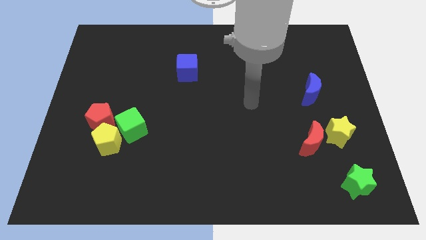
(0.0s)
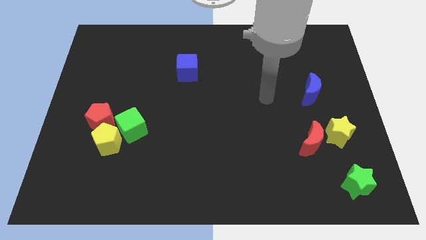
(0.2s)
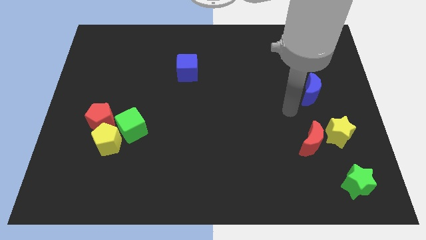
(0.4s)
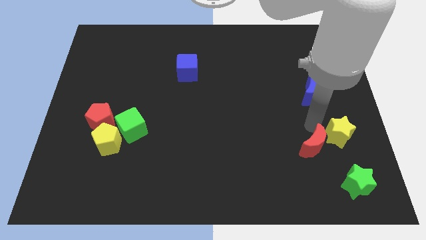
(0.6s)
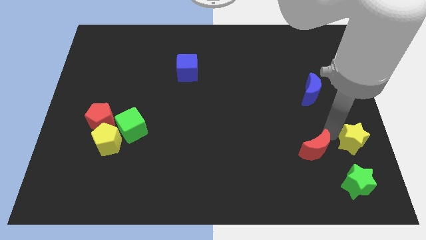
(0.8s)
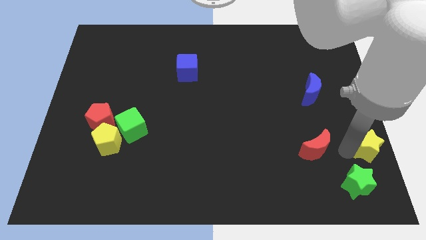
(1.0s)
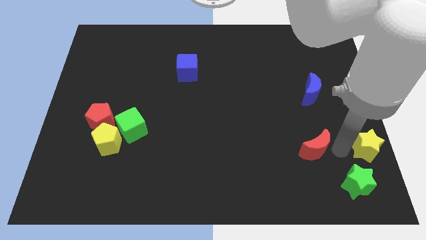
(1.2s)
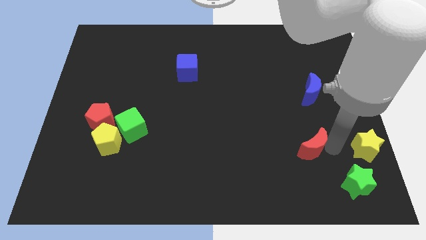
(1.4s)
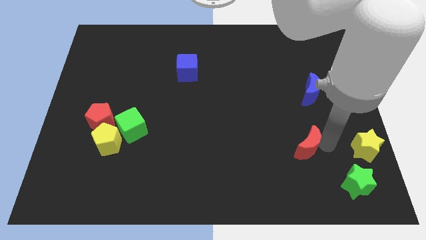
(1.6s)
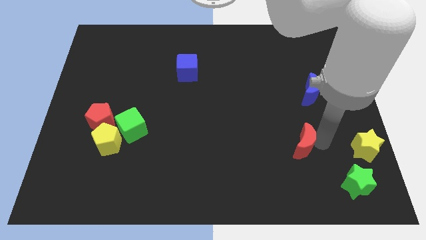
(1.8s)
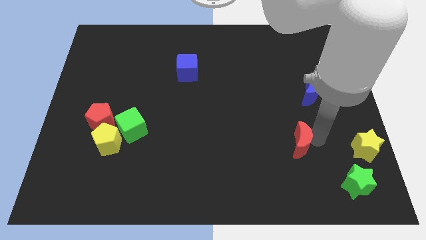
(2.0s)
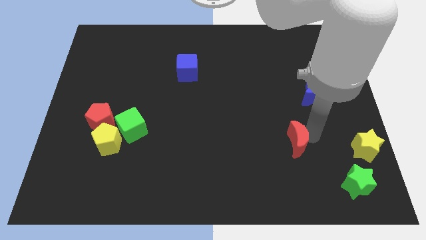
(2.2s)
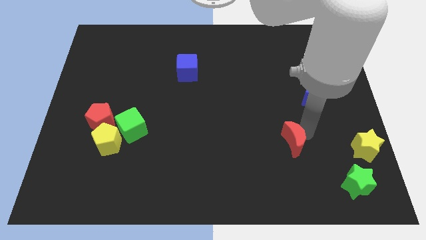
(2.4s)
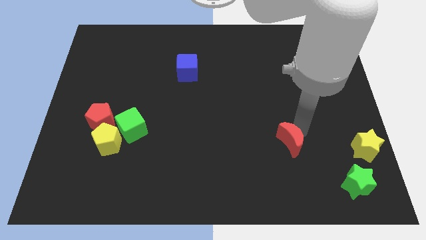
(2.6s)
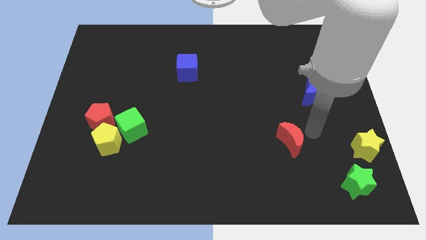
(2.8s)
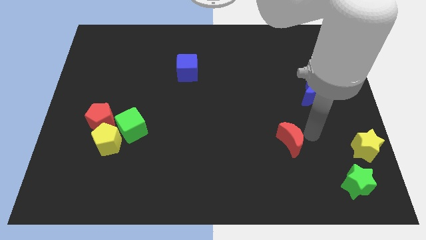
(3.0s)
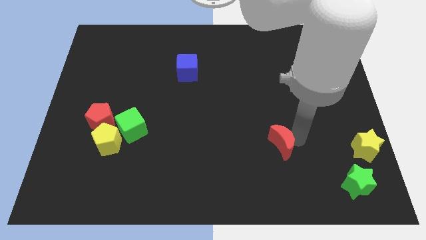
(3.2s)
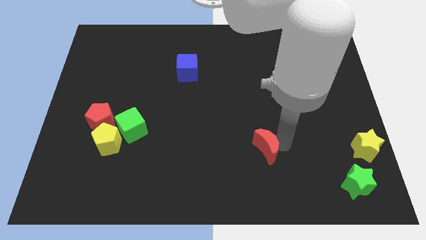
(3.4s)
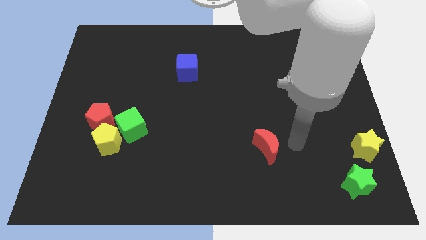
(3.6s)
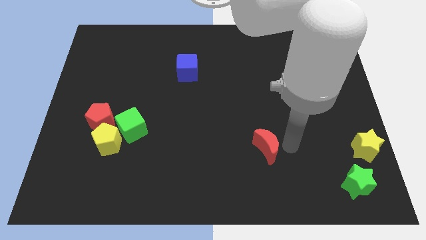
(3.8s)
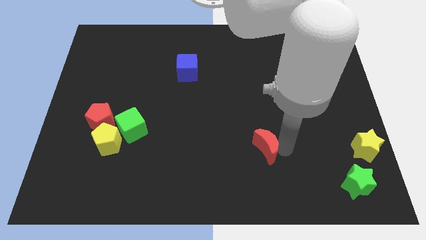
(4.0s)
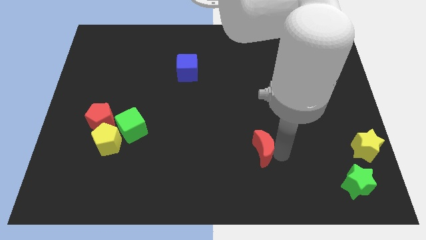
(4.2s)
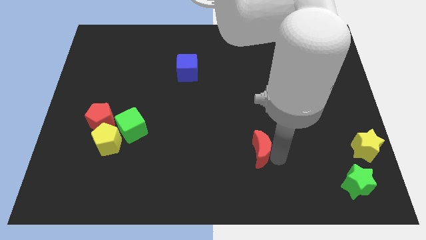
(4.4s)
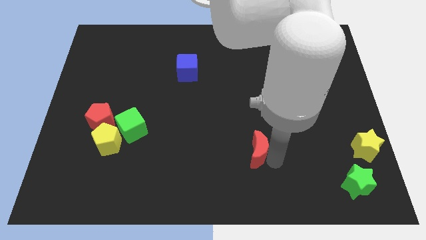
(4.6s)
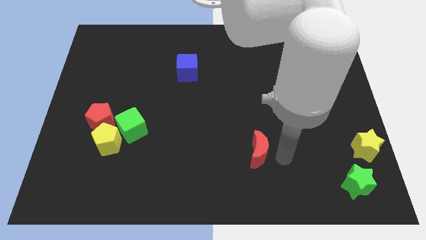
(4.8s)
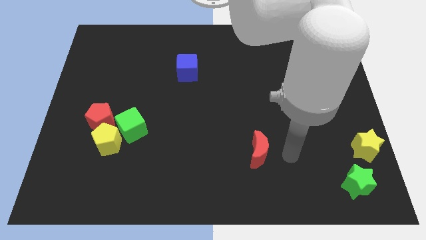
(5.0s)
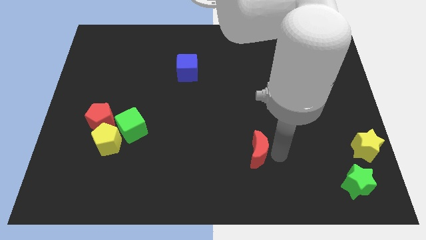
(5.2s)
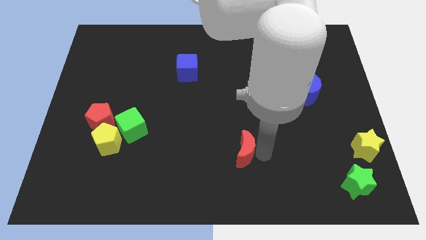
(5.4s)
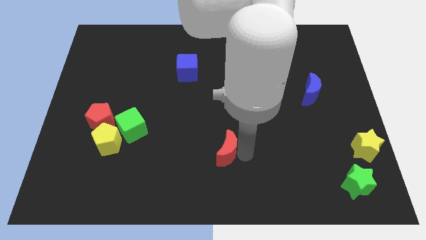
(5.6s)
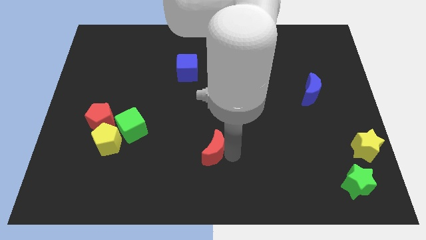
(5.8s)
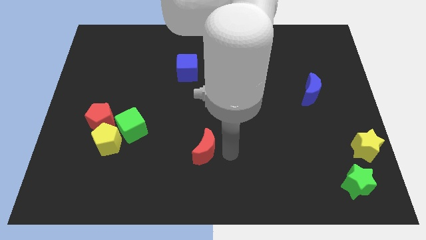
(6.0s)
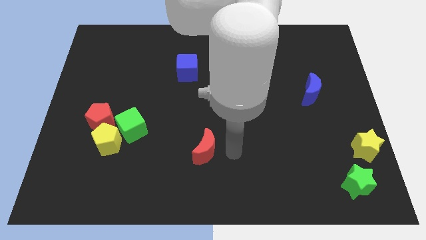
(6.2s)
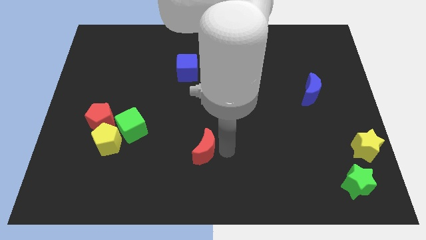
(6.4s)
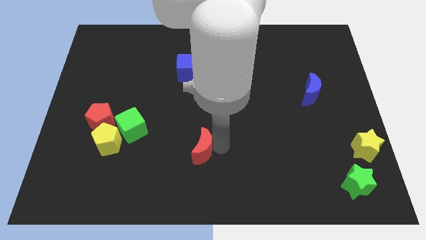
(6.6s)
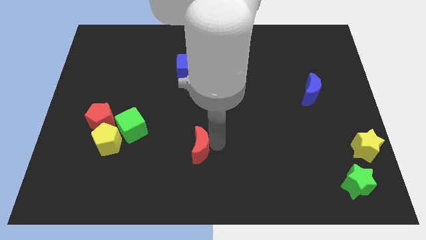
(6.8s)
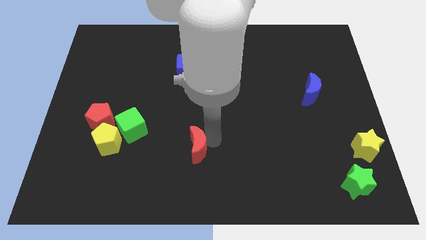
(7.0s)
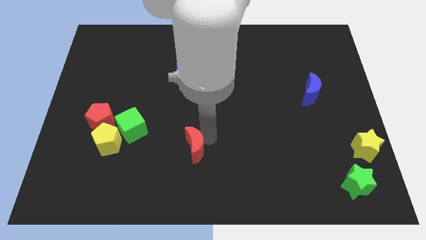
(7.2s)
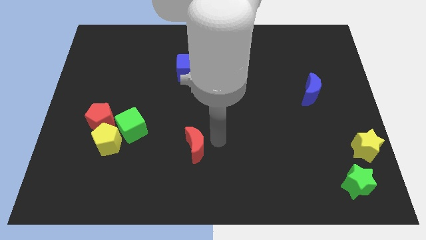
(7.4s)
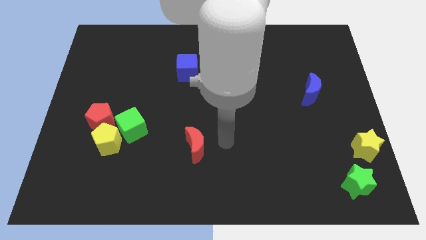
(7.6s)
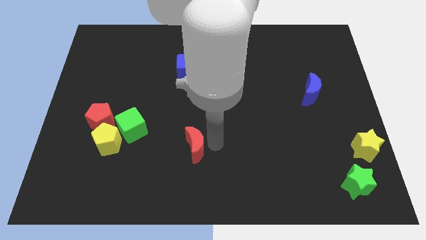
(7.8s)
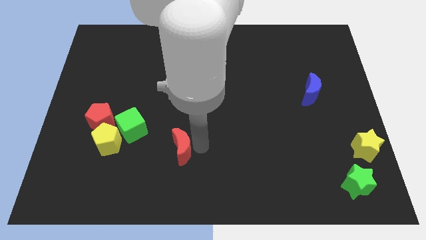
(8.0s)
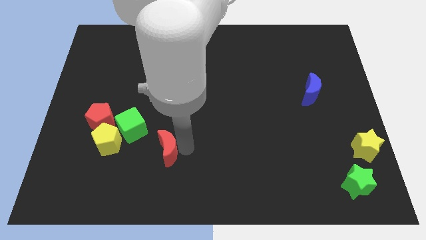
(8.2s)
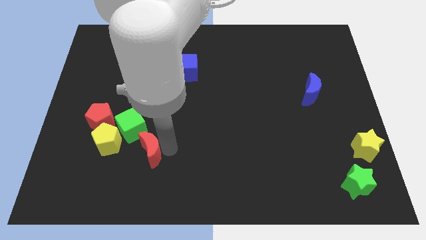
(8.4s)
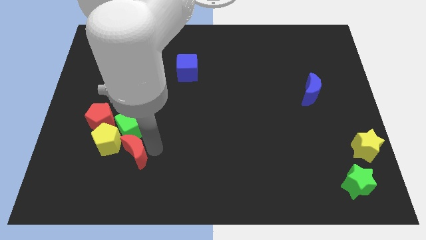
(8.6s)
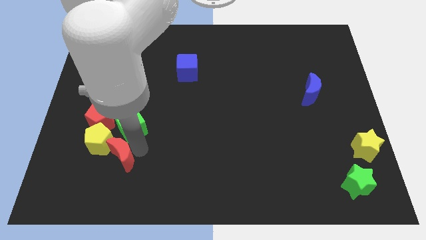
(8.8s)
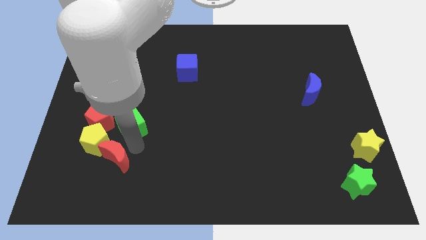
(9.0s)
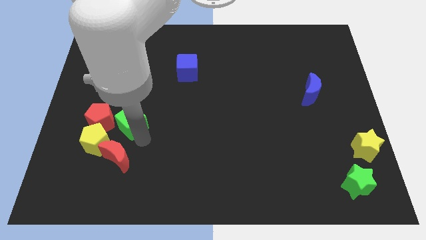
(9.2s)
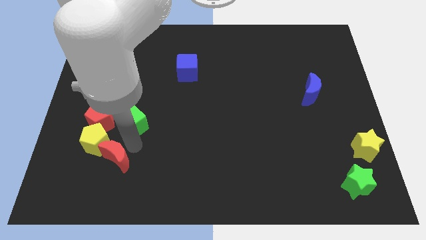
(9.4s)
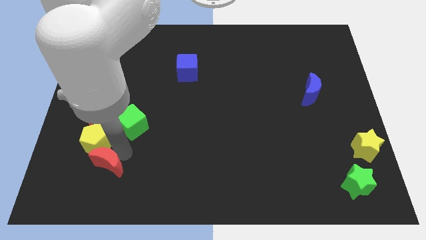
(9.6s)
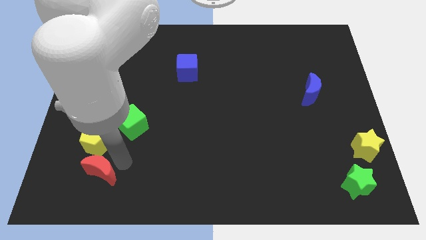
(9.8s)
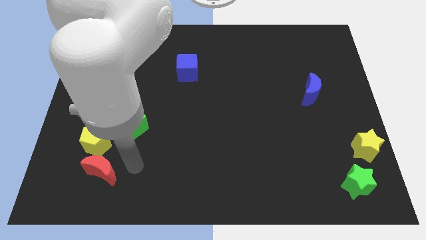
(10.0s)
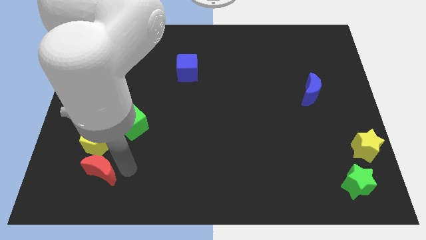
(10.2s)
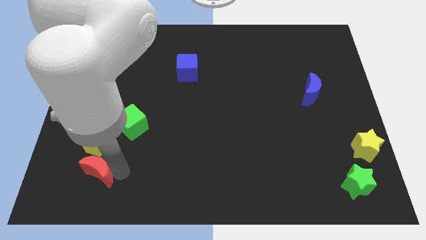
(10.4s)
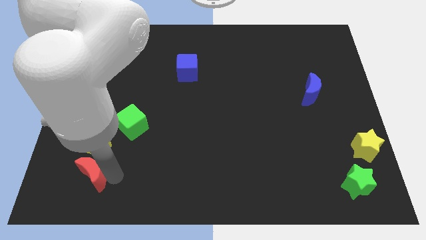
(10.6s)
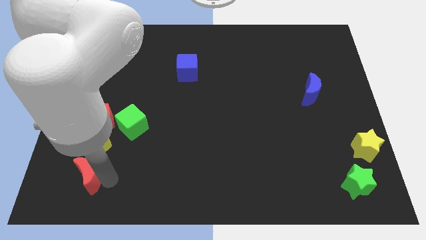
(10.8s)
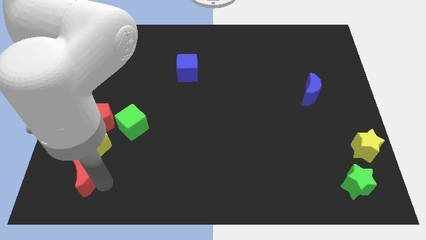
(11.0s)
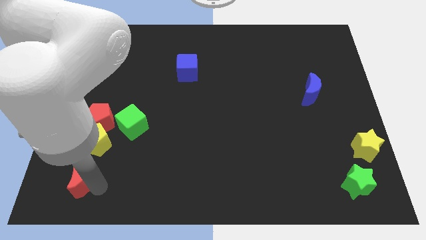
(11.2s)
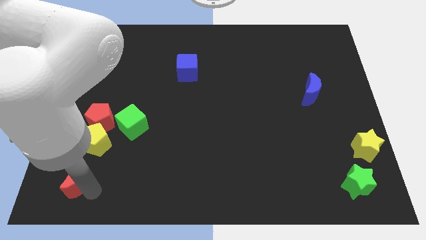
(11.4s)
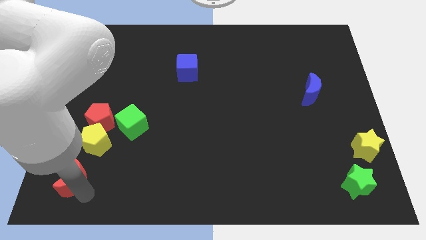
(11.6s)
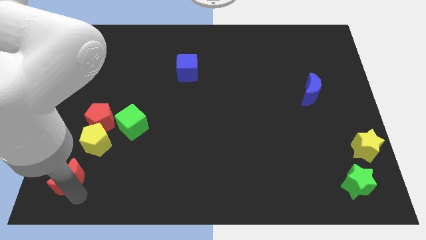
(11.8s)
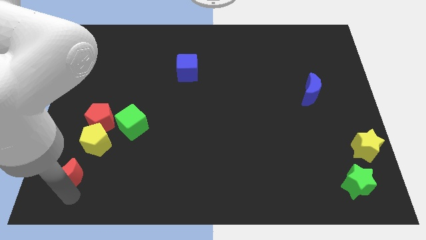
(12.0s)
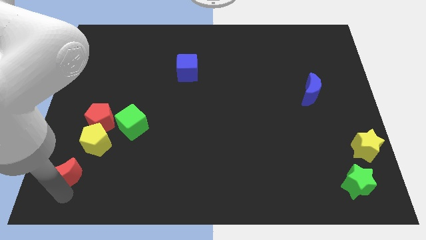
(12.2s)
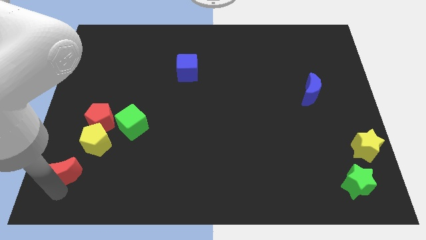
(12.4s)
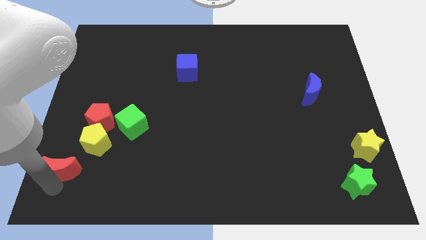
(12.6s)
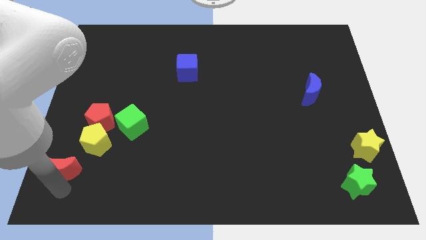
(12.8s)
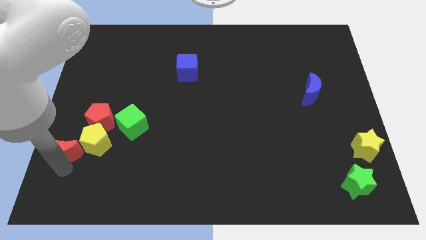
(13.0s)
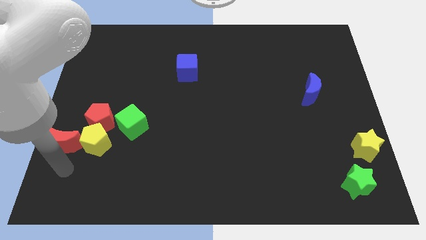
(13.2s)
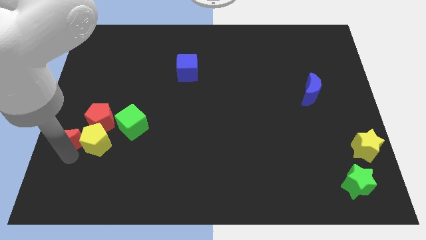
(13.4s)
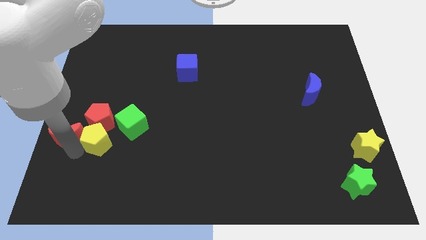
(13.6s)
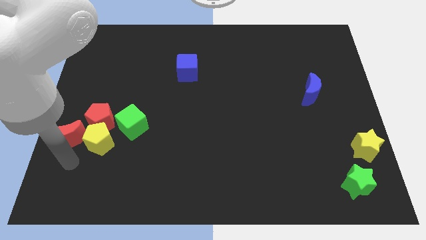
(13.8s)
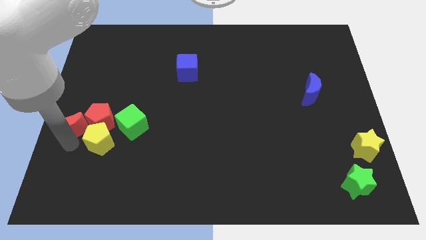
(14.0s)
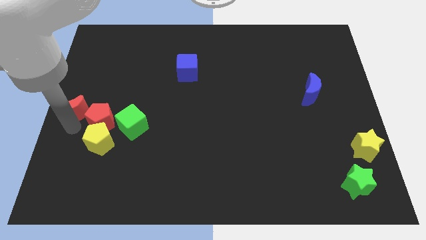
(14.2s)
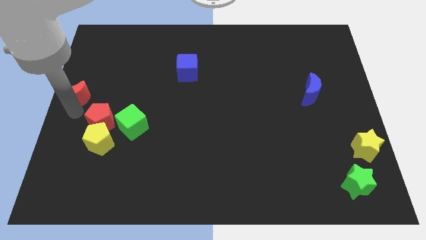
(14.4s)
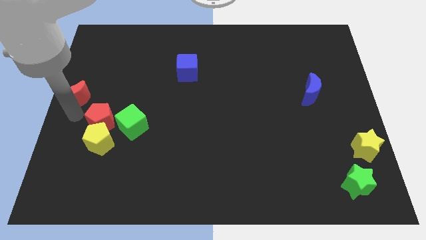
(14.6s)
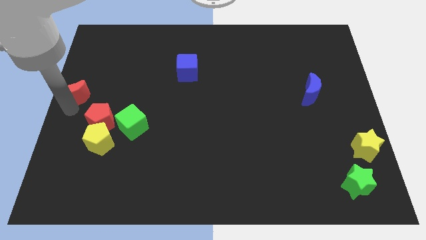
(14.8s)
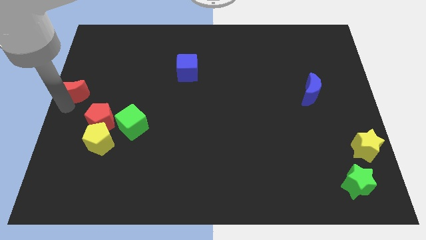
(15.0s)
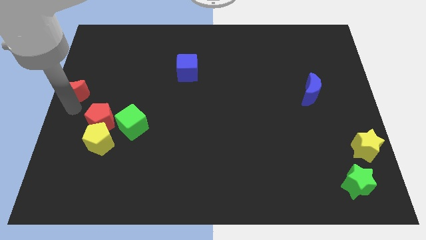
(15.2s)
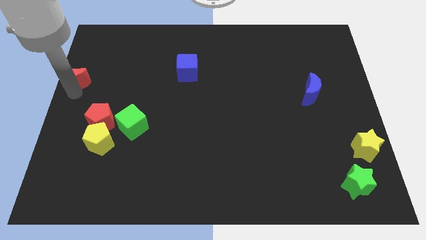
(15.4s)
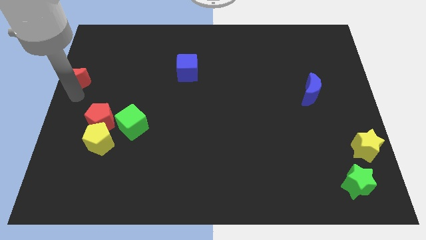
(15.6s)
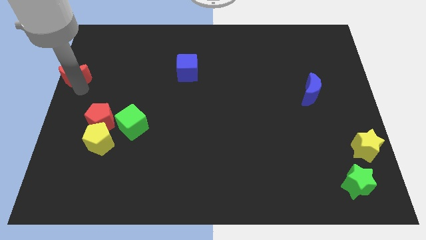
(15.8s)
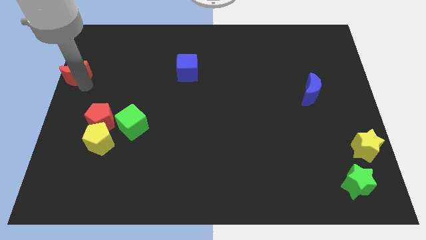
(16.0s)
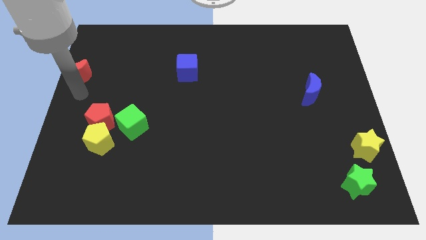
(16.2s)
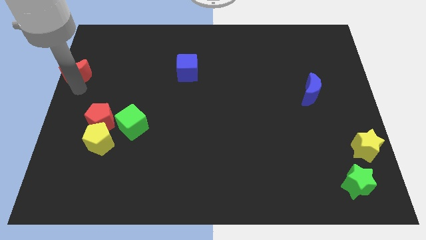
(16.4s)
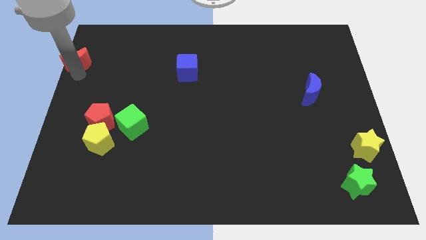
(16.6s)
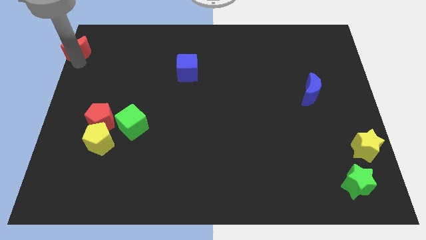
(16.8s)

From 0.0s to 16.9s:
move the red moon to the top left of the board
